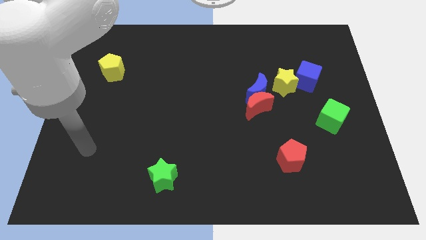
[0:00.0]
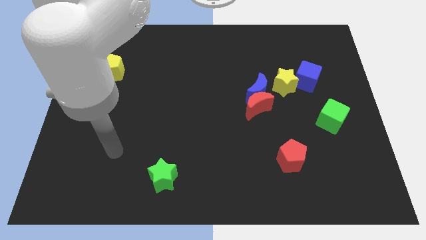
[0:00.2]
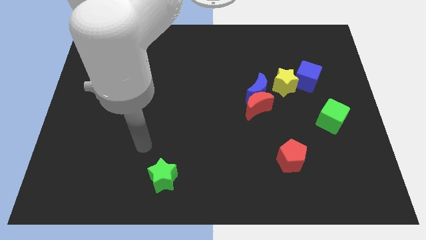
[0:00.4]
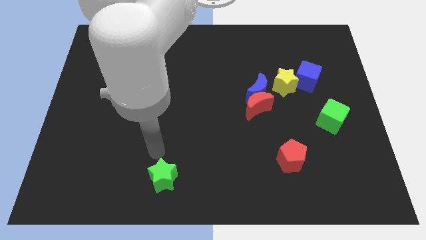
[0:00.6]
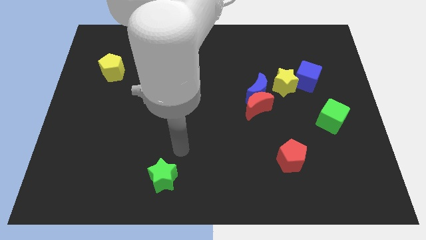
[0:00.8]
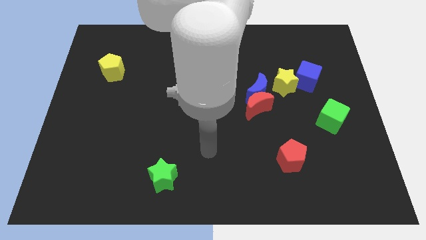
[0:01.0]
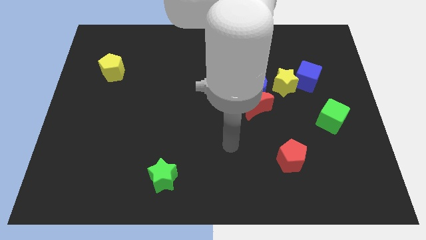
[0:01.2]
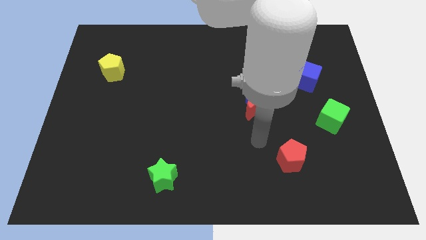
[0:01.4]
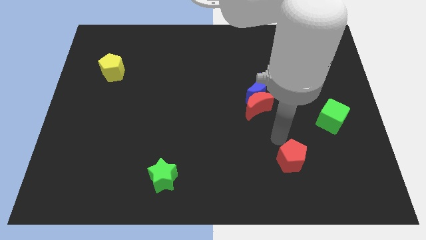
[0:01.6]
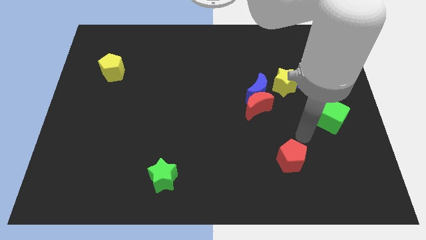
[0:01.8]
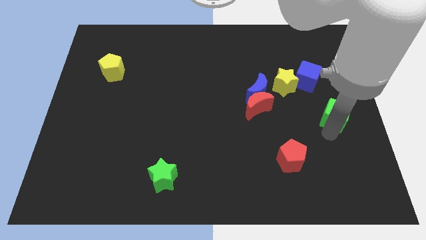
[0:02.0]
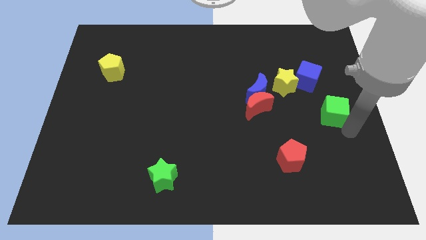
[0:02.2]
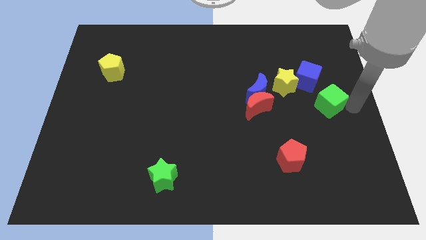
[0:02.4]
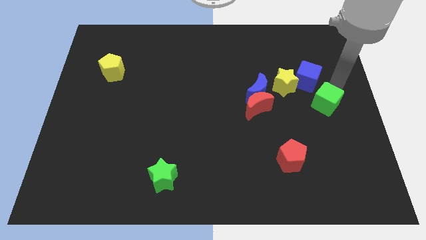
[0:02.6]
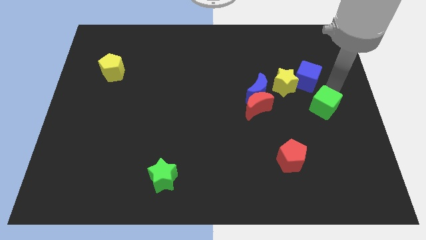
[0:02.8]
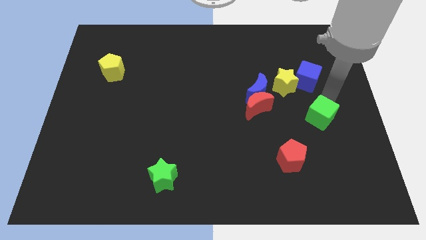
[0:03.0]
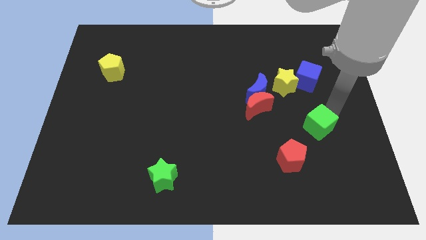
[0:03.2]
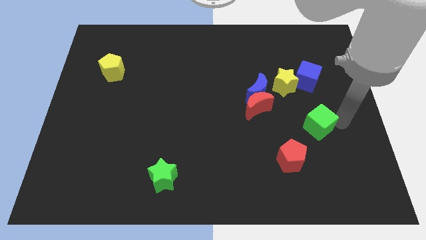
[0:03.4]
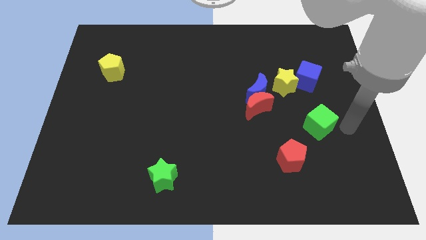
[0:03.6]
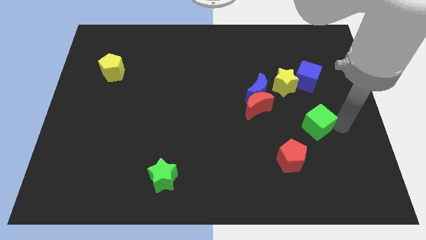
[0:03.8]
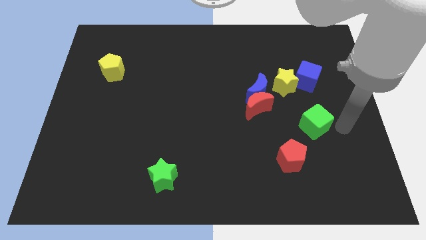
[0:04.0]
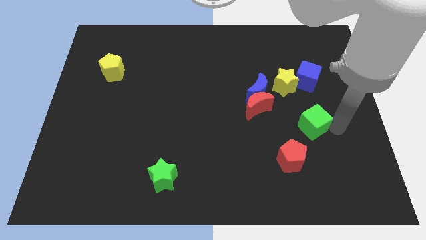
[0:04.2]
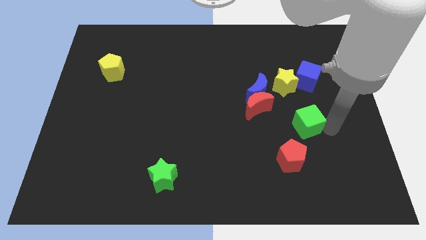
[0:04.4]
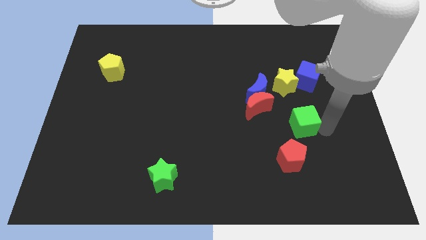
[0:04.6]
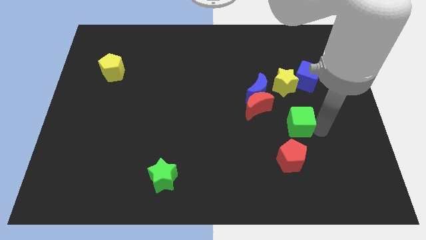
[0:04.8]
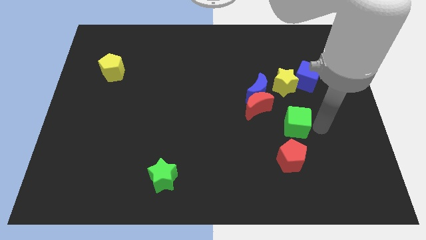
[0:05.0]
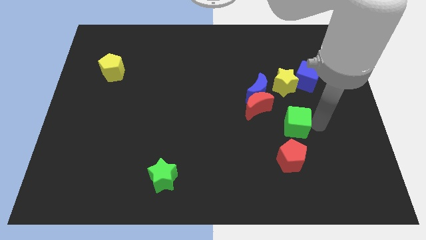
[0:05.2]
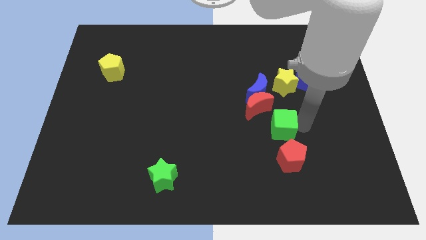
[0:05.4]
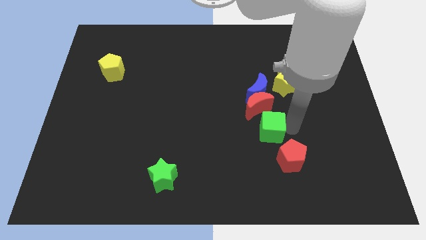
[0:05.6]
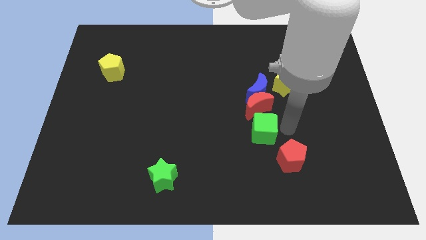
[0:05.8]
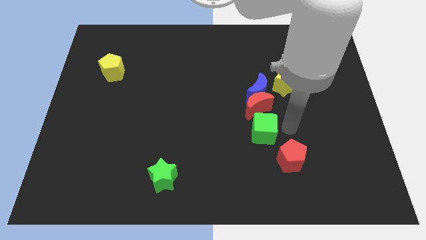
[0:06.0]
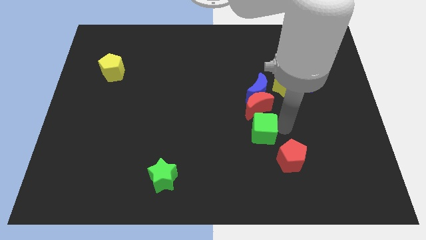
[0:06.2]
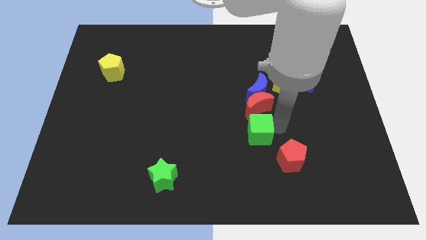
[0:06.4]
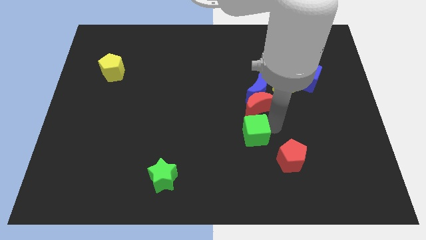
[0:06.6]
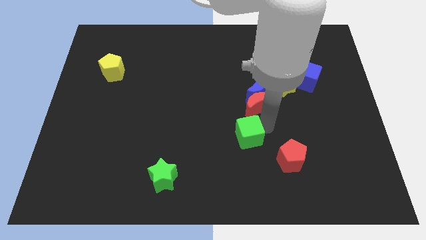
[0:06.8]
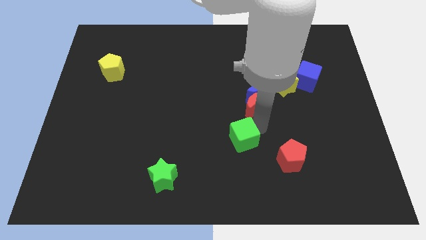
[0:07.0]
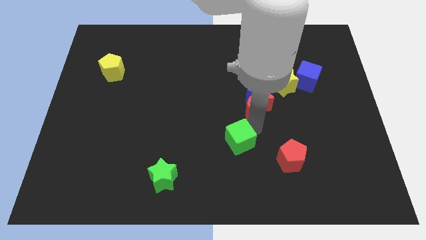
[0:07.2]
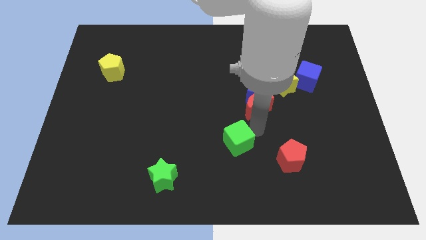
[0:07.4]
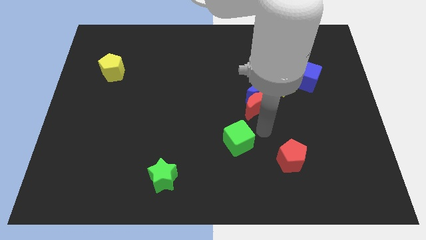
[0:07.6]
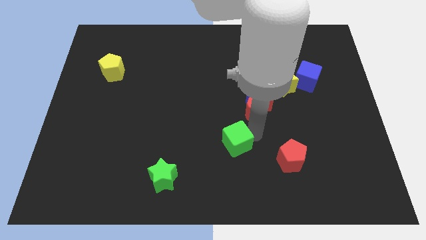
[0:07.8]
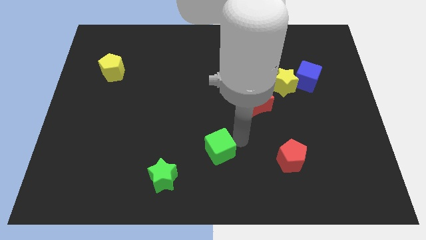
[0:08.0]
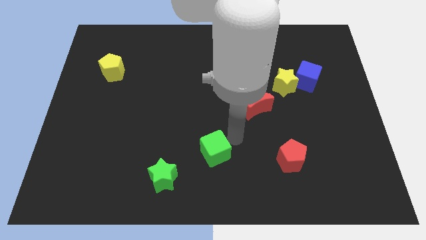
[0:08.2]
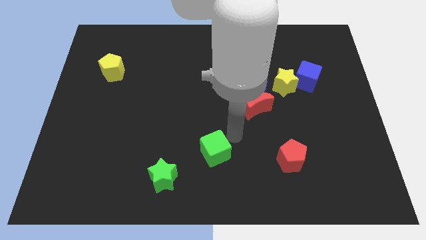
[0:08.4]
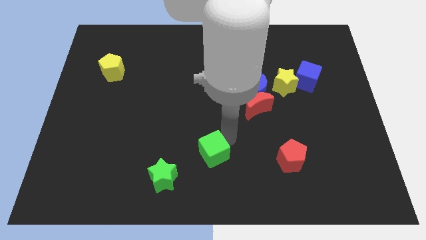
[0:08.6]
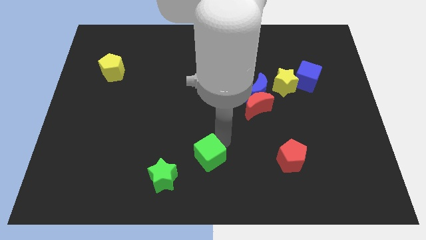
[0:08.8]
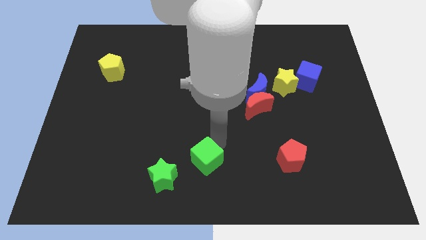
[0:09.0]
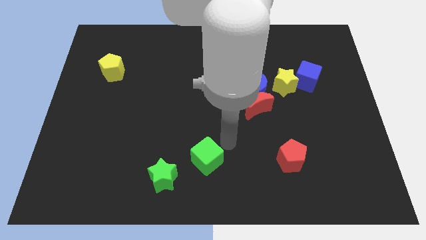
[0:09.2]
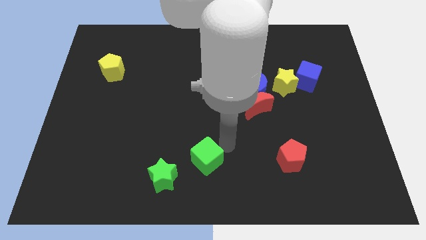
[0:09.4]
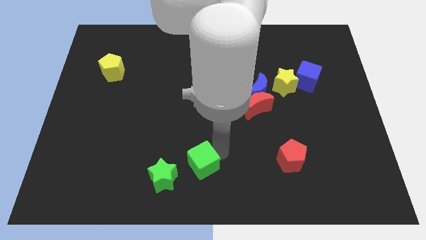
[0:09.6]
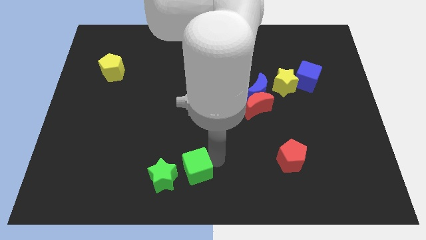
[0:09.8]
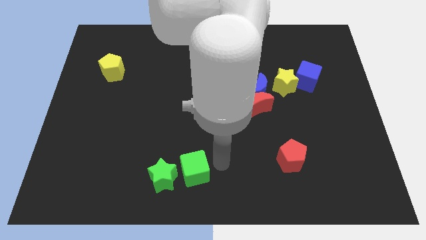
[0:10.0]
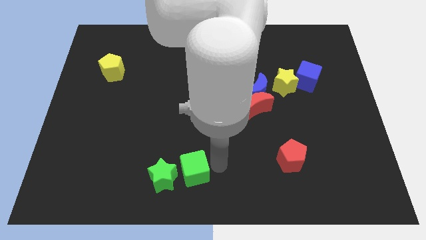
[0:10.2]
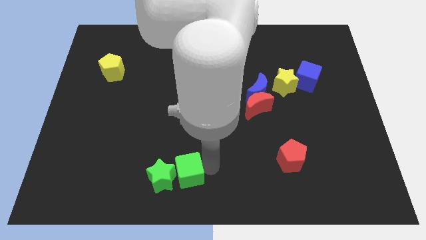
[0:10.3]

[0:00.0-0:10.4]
push the green cube to the green star
